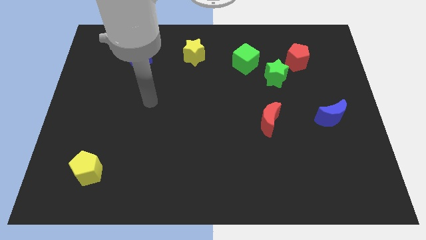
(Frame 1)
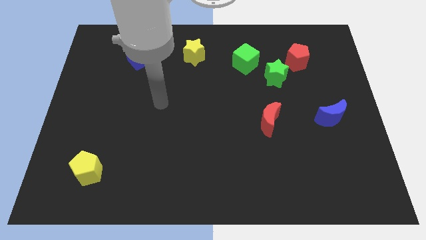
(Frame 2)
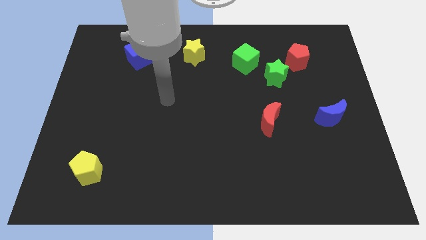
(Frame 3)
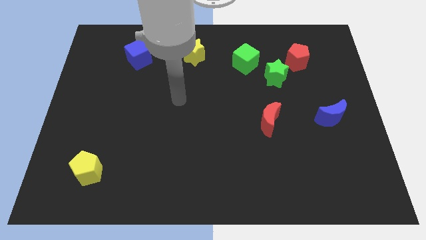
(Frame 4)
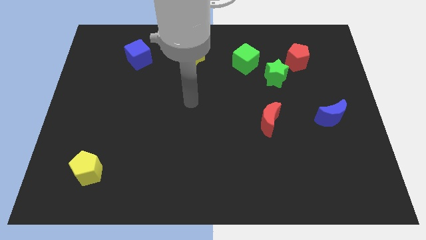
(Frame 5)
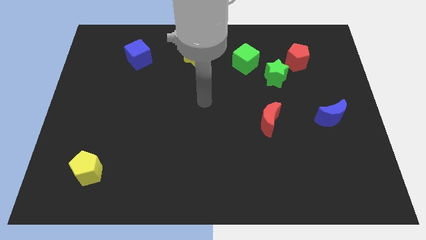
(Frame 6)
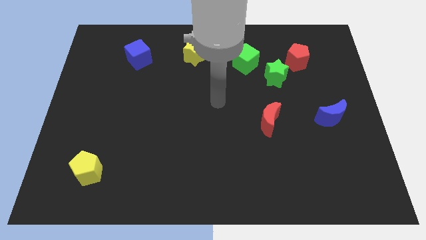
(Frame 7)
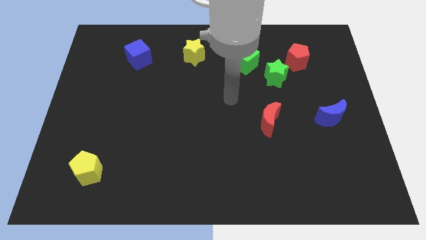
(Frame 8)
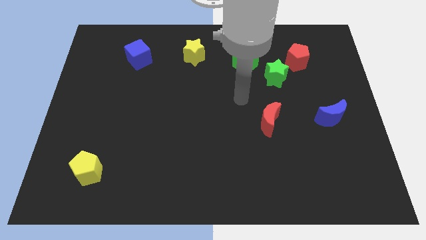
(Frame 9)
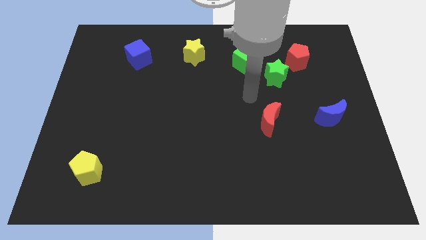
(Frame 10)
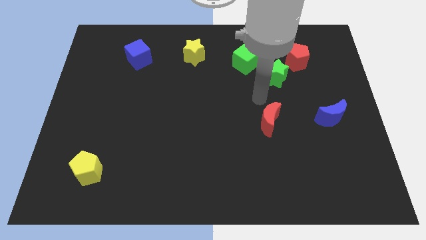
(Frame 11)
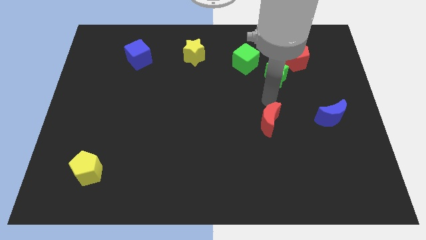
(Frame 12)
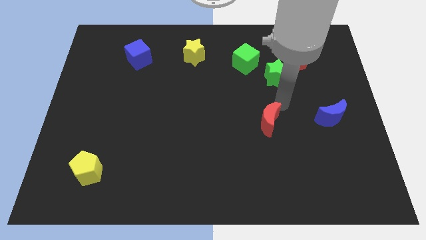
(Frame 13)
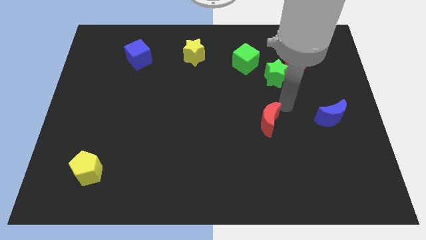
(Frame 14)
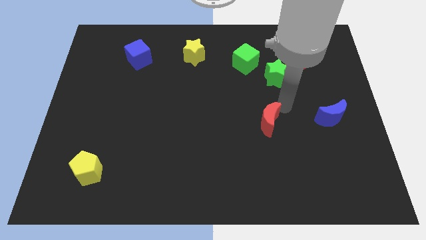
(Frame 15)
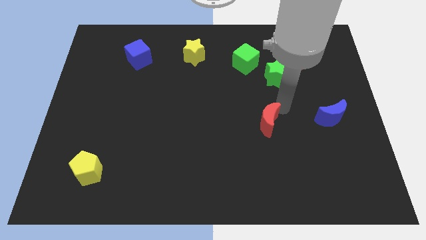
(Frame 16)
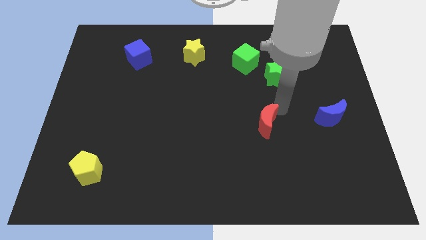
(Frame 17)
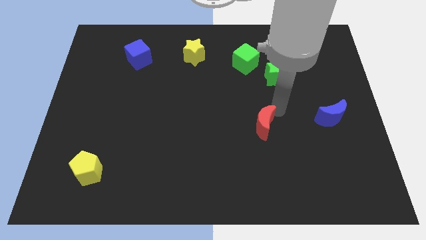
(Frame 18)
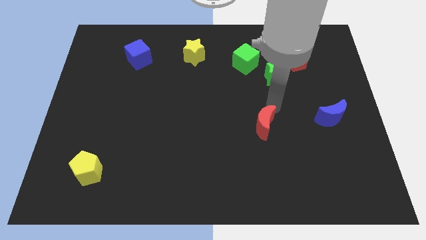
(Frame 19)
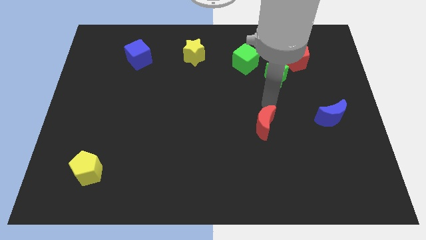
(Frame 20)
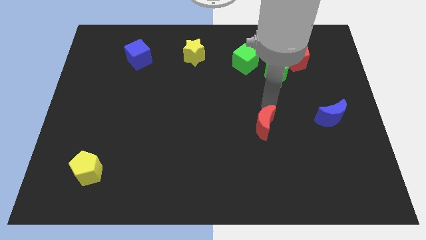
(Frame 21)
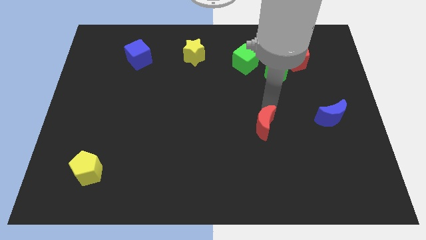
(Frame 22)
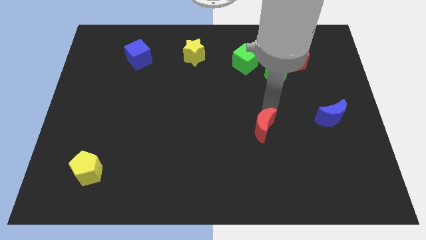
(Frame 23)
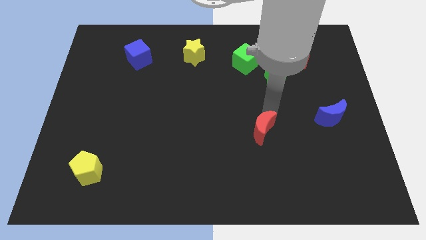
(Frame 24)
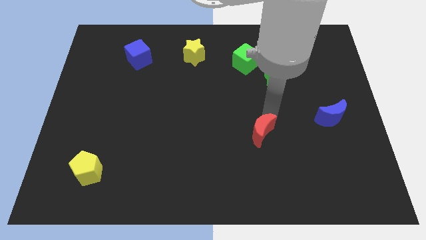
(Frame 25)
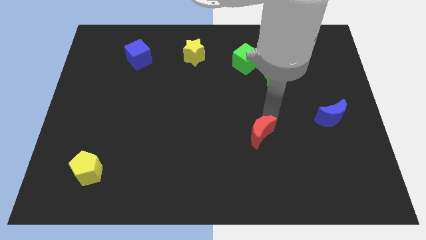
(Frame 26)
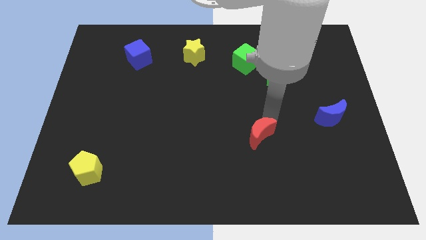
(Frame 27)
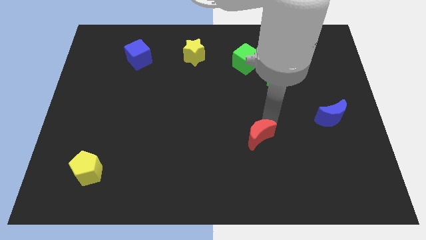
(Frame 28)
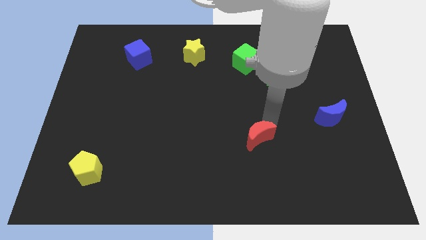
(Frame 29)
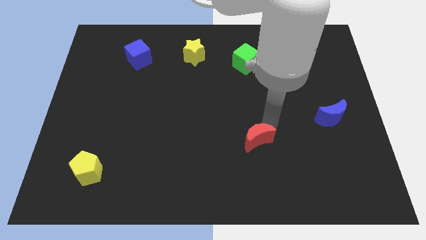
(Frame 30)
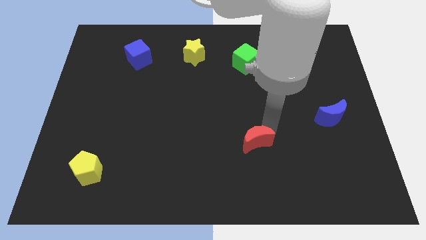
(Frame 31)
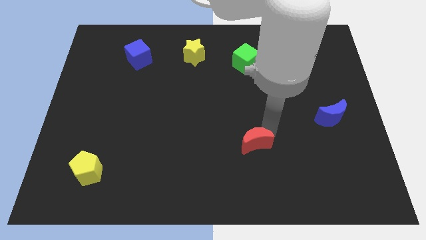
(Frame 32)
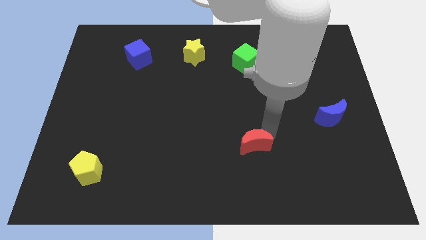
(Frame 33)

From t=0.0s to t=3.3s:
move the red moon diagonally down and left a bit

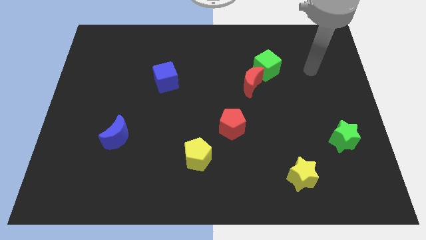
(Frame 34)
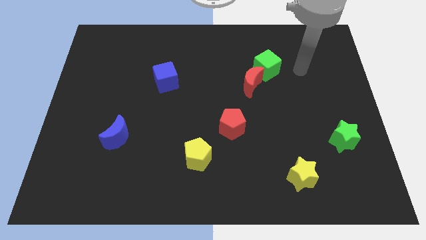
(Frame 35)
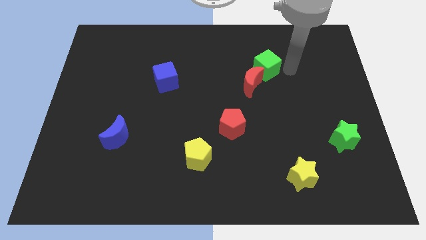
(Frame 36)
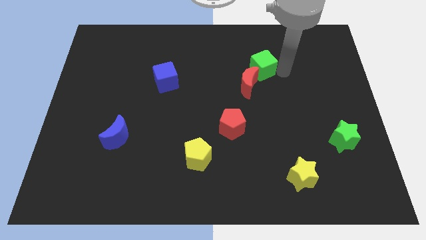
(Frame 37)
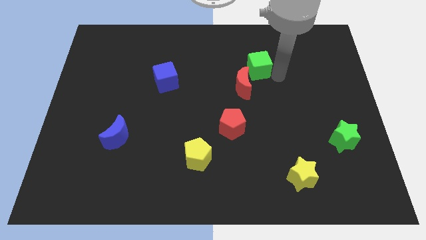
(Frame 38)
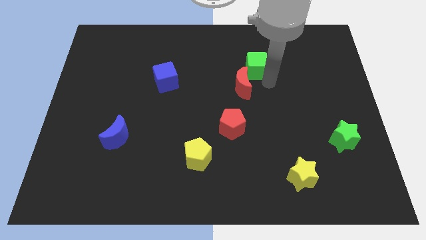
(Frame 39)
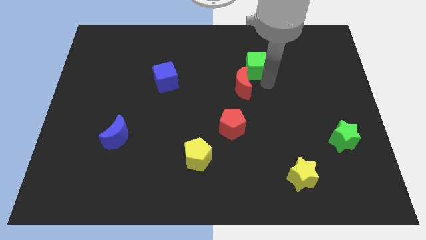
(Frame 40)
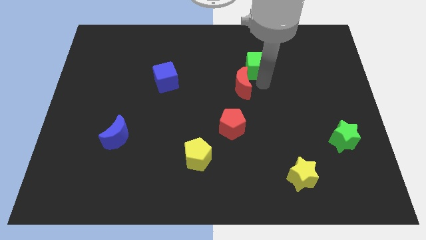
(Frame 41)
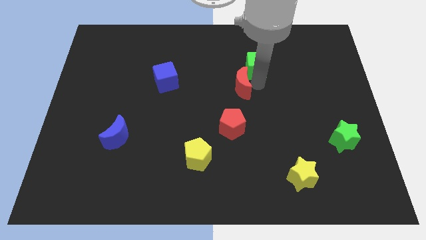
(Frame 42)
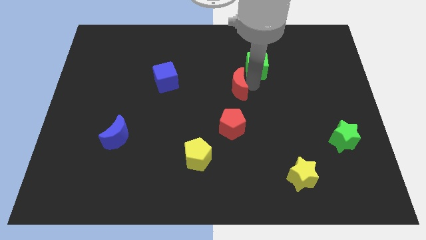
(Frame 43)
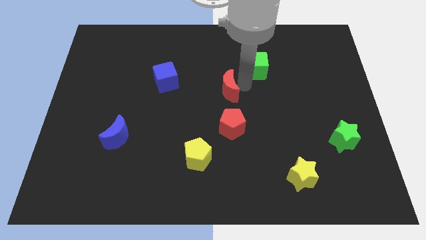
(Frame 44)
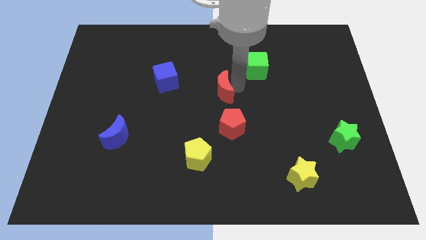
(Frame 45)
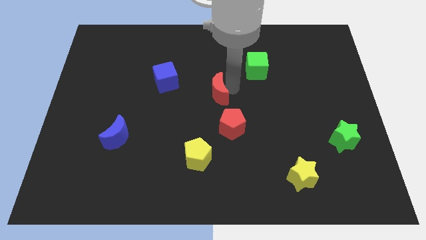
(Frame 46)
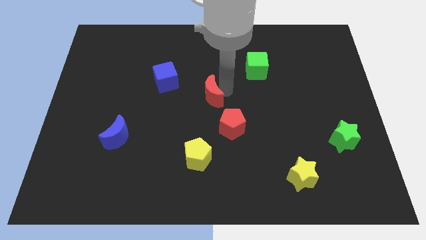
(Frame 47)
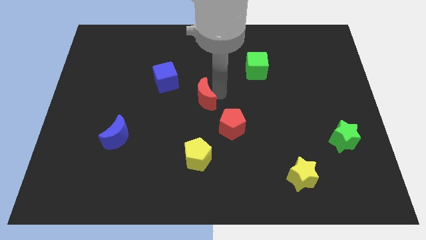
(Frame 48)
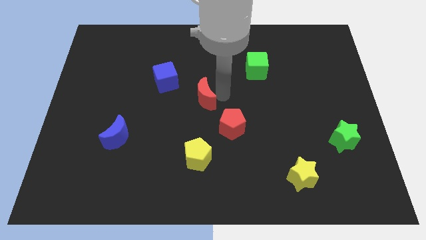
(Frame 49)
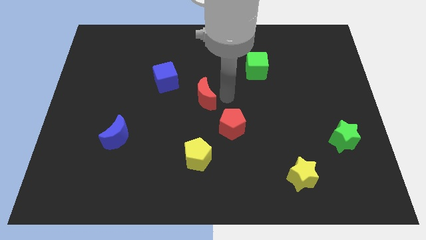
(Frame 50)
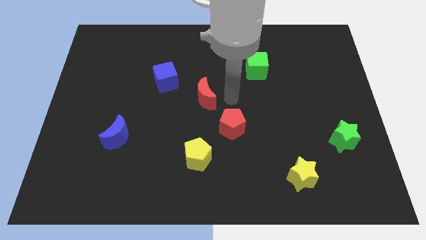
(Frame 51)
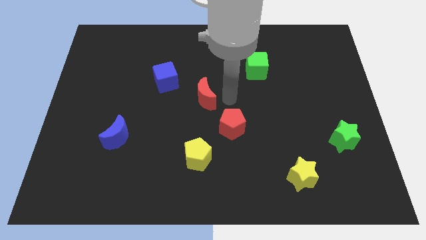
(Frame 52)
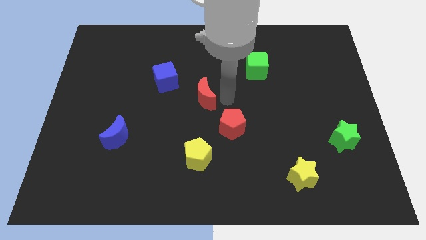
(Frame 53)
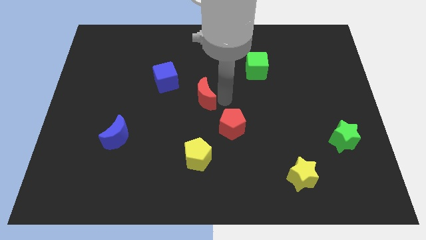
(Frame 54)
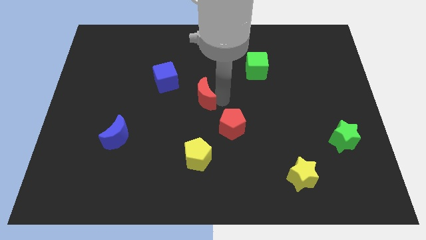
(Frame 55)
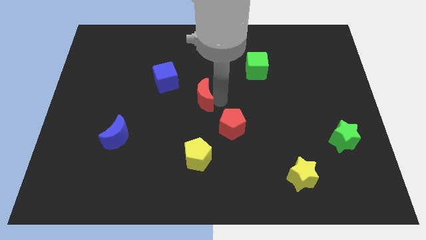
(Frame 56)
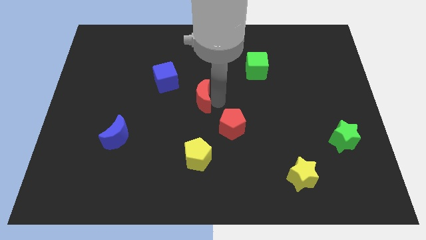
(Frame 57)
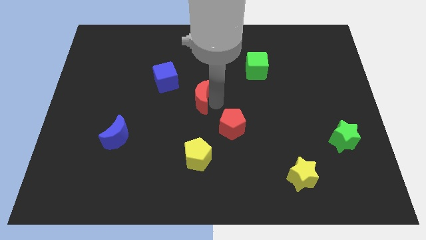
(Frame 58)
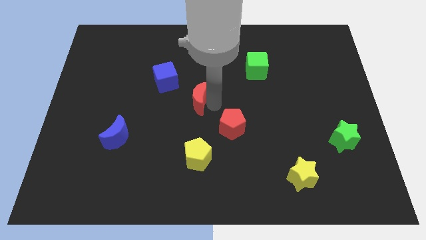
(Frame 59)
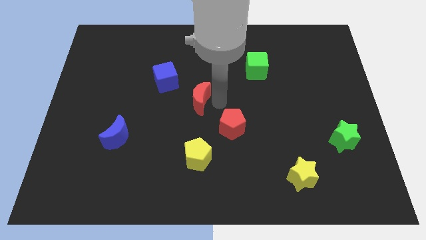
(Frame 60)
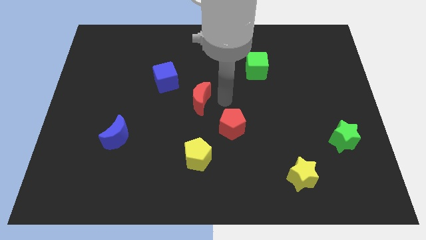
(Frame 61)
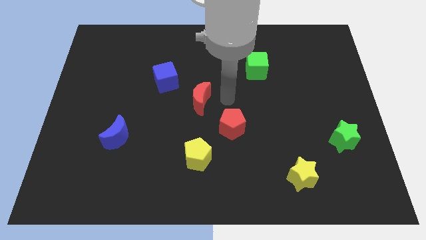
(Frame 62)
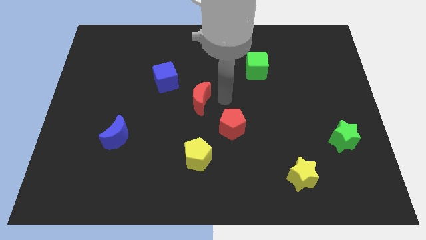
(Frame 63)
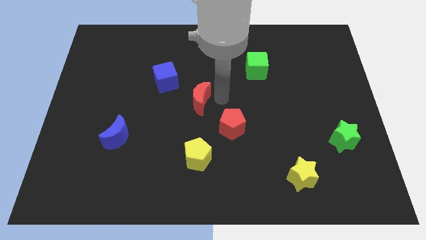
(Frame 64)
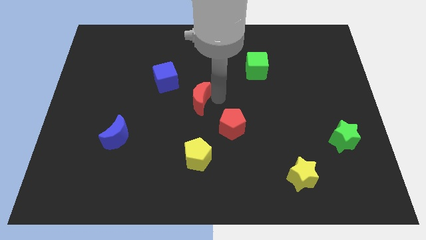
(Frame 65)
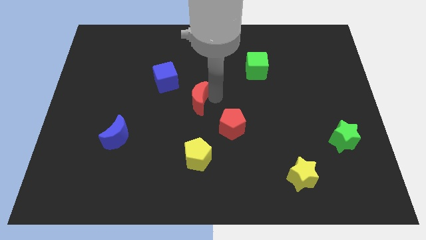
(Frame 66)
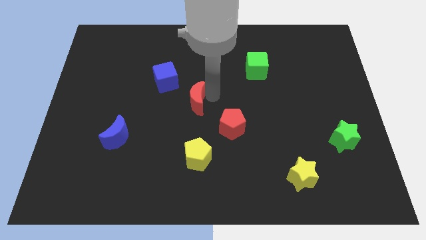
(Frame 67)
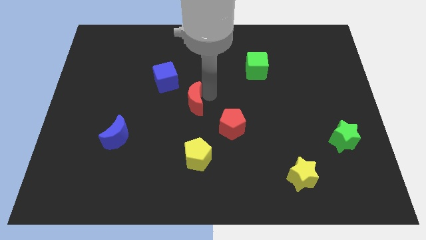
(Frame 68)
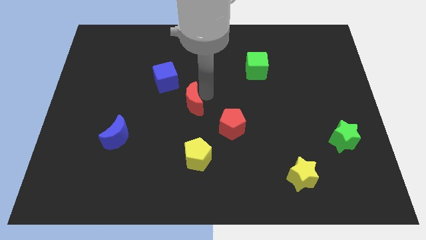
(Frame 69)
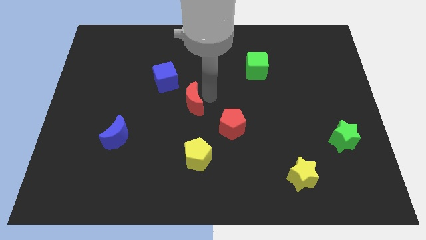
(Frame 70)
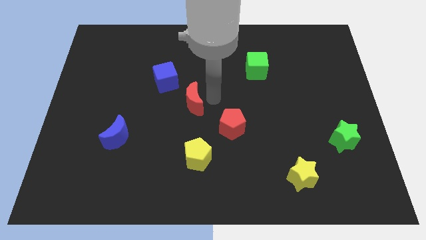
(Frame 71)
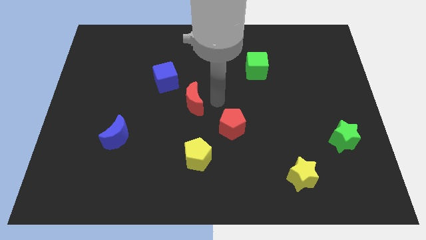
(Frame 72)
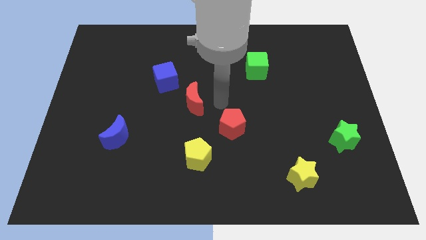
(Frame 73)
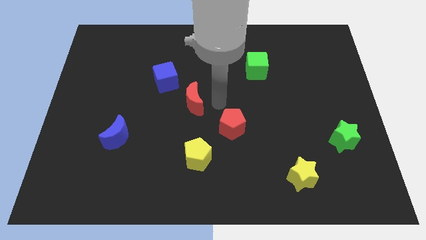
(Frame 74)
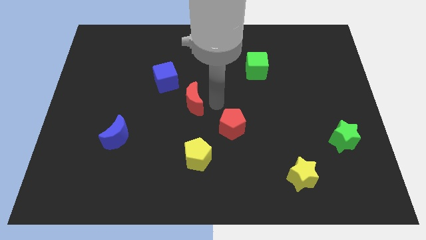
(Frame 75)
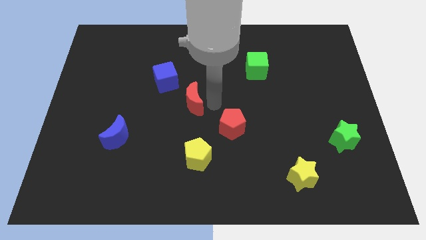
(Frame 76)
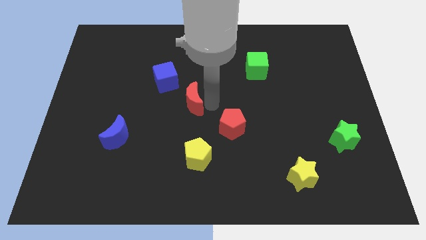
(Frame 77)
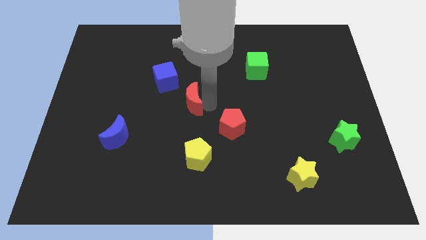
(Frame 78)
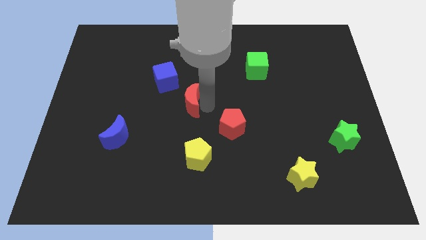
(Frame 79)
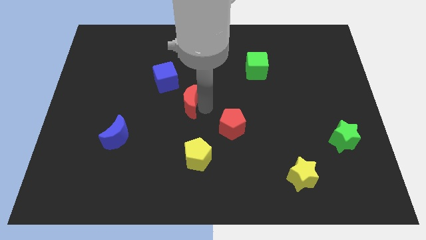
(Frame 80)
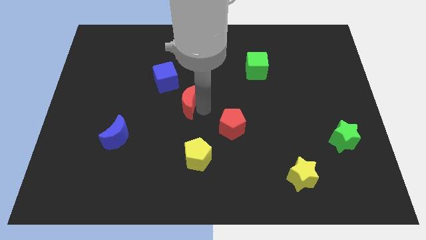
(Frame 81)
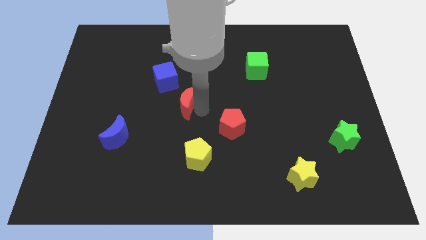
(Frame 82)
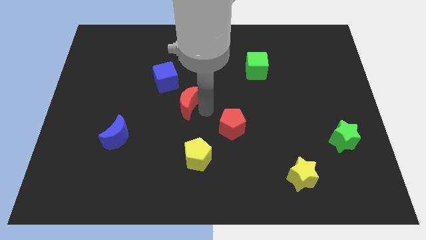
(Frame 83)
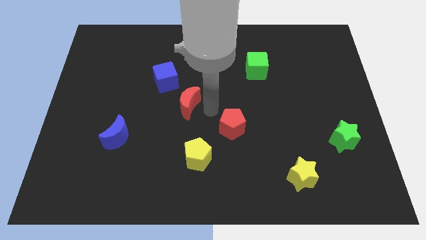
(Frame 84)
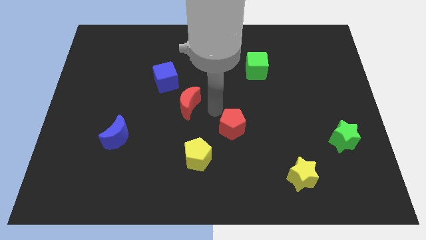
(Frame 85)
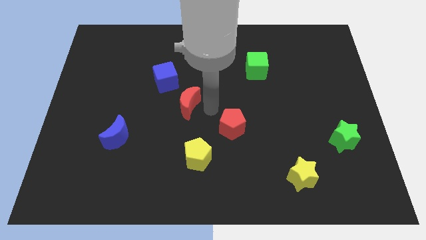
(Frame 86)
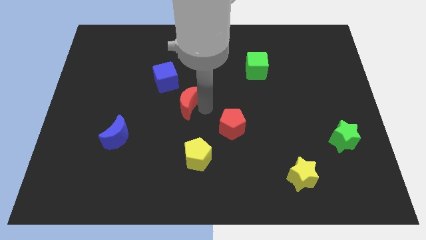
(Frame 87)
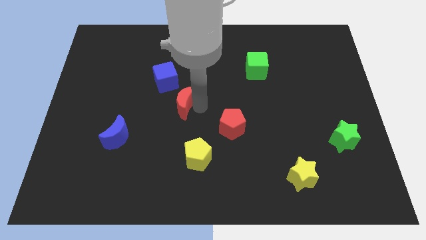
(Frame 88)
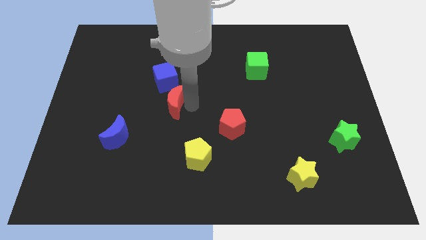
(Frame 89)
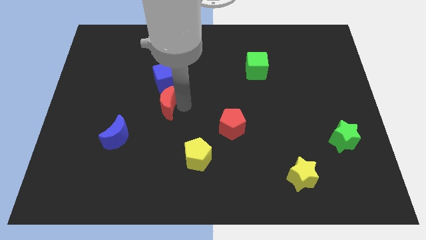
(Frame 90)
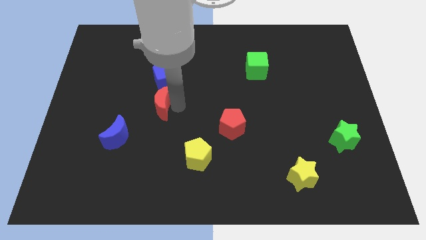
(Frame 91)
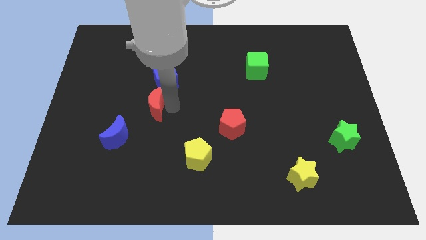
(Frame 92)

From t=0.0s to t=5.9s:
push the red moon left
